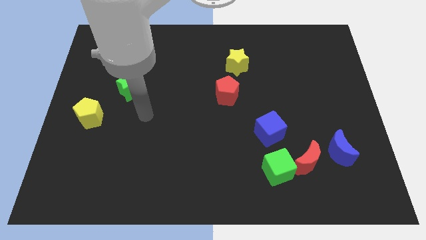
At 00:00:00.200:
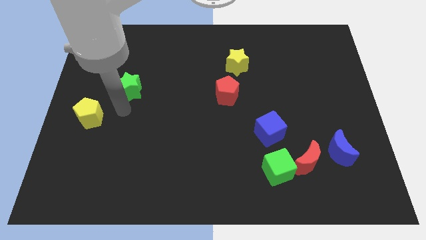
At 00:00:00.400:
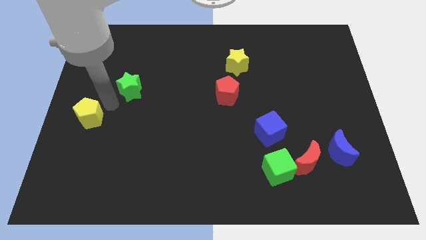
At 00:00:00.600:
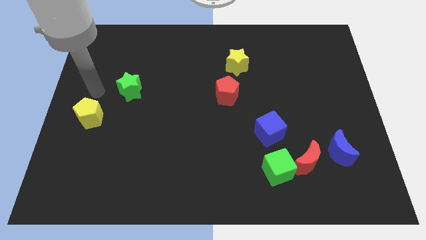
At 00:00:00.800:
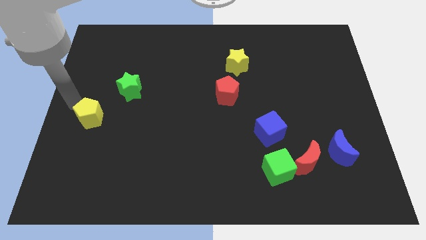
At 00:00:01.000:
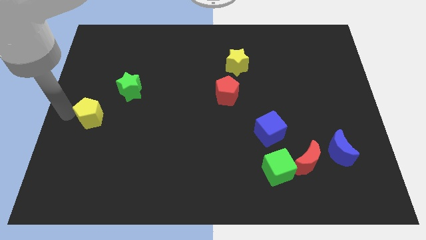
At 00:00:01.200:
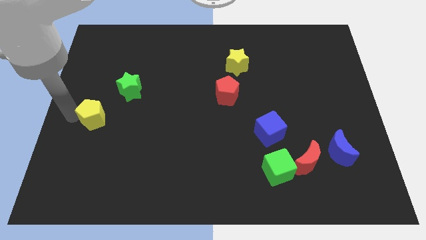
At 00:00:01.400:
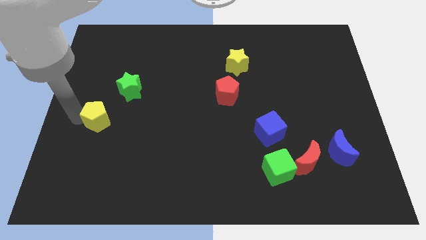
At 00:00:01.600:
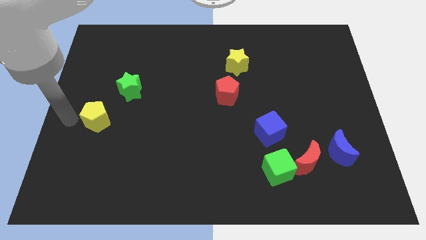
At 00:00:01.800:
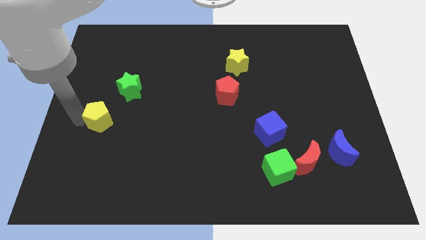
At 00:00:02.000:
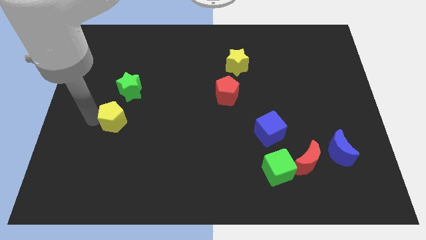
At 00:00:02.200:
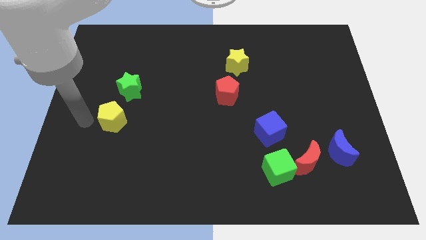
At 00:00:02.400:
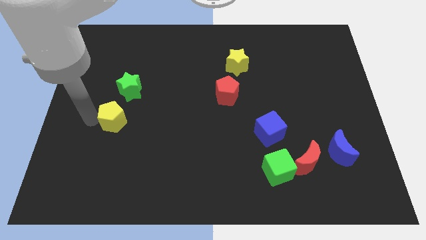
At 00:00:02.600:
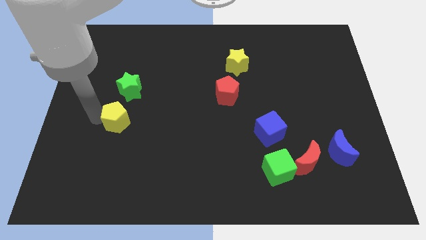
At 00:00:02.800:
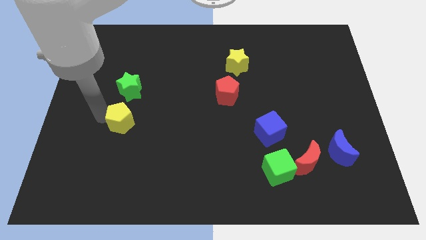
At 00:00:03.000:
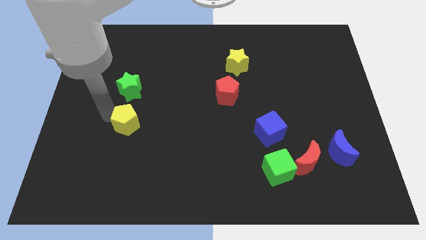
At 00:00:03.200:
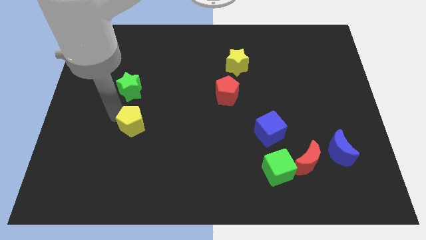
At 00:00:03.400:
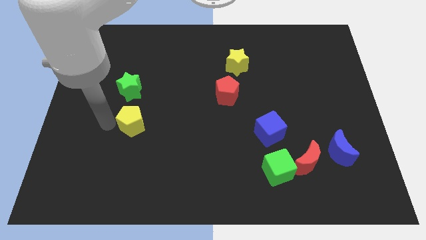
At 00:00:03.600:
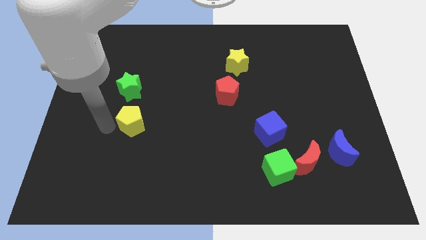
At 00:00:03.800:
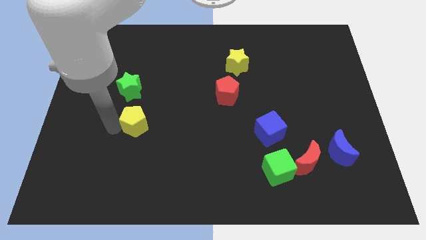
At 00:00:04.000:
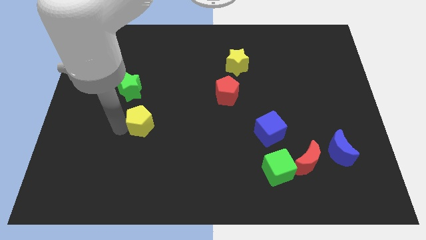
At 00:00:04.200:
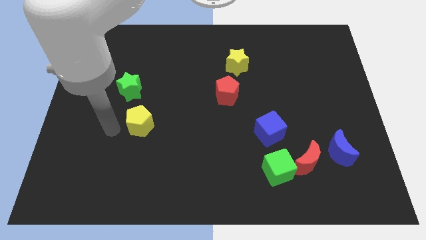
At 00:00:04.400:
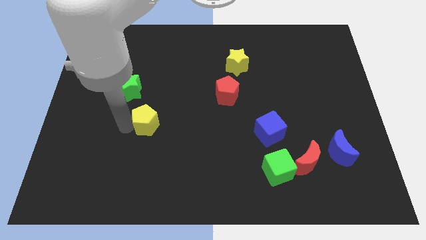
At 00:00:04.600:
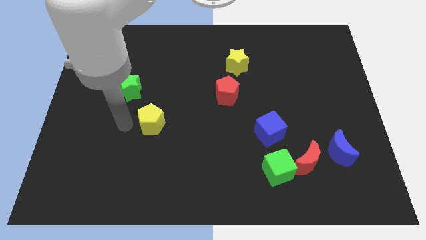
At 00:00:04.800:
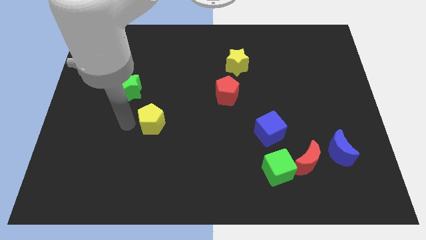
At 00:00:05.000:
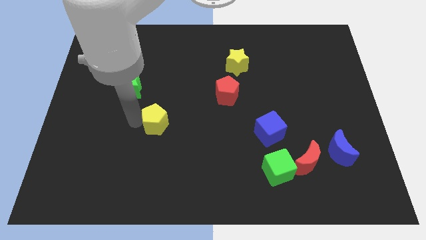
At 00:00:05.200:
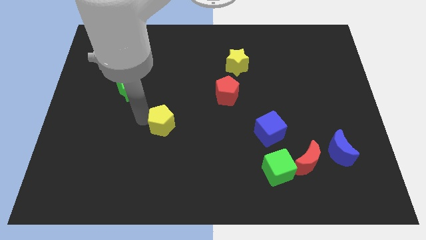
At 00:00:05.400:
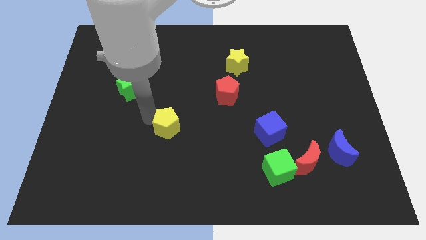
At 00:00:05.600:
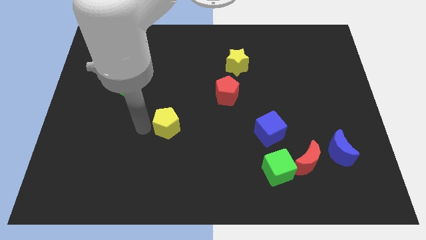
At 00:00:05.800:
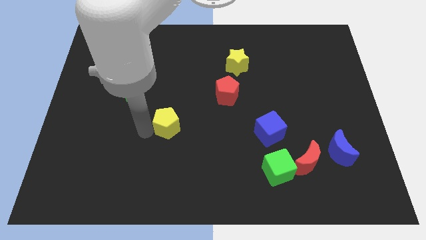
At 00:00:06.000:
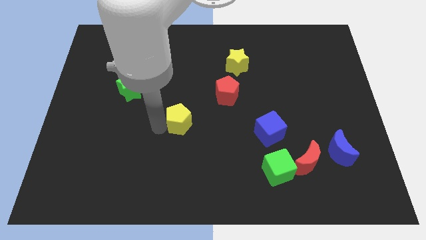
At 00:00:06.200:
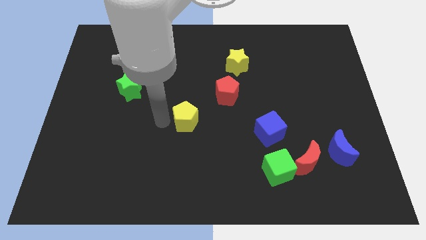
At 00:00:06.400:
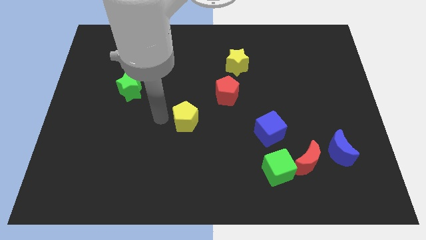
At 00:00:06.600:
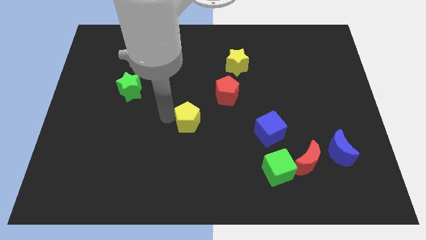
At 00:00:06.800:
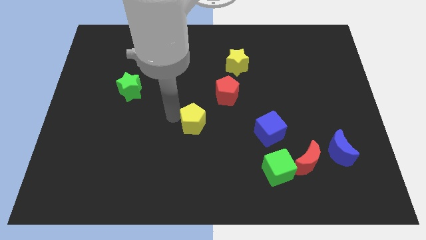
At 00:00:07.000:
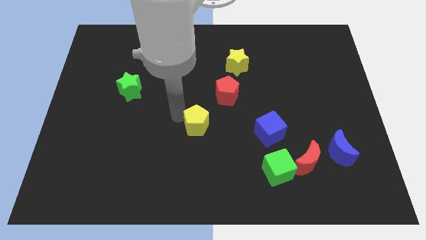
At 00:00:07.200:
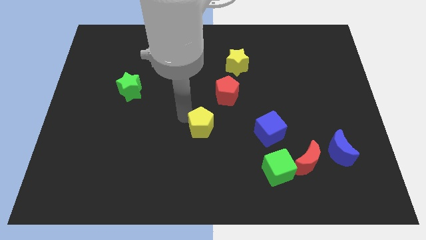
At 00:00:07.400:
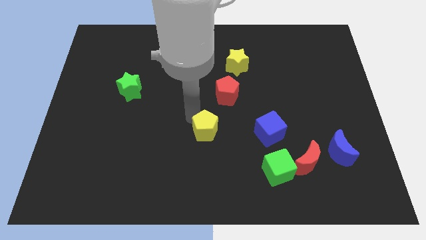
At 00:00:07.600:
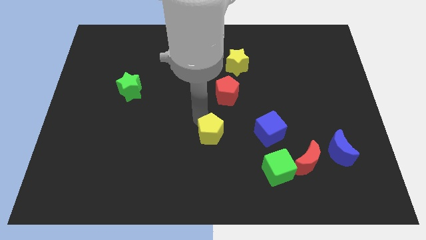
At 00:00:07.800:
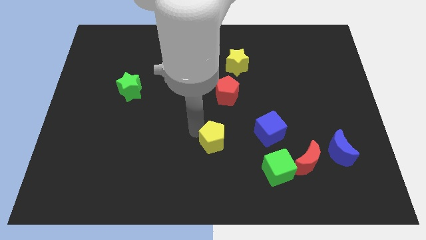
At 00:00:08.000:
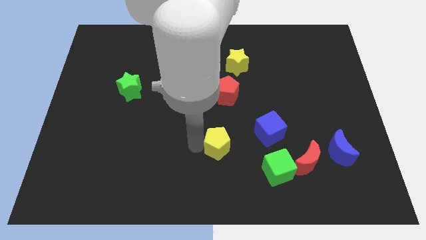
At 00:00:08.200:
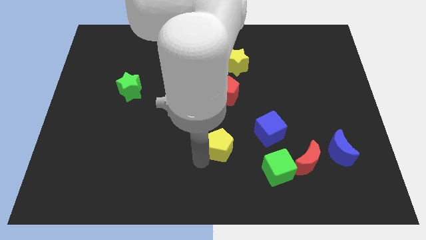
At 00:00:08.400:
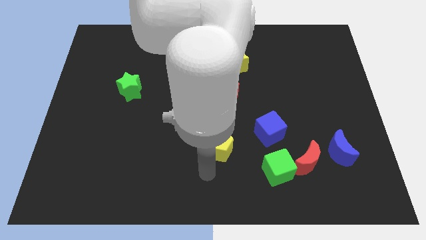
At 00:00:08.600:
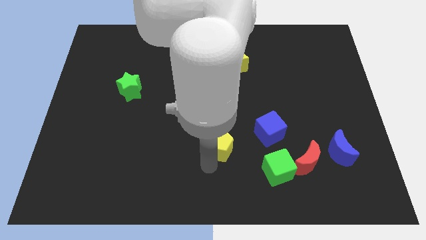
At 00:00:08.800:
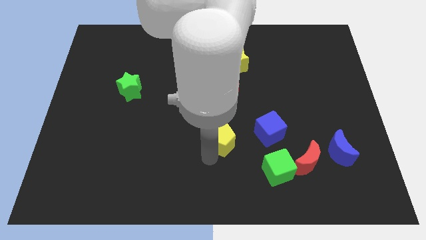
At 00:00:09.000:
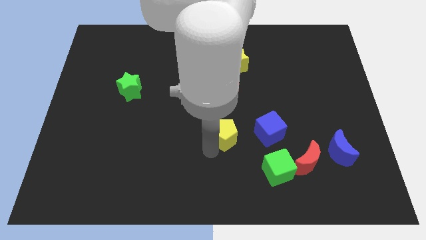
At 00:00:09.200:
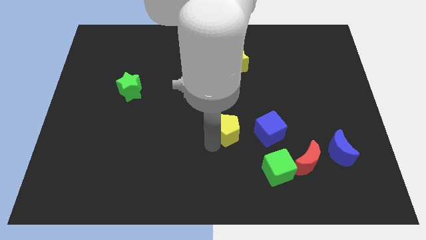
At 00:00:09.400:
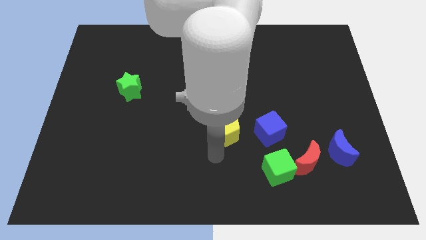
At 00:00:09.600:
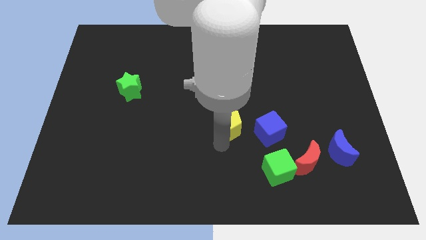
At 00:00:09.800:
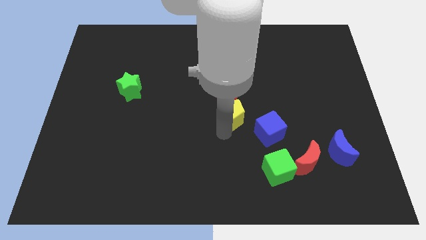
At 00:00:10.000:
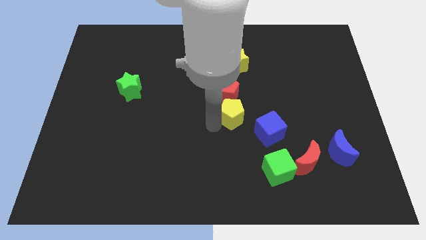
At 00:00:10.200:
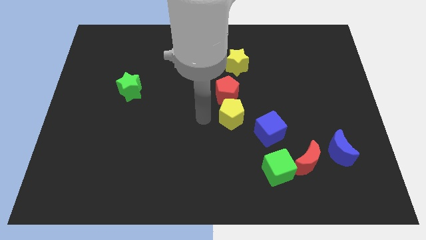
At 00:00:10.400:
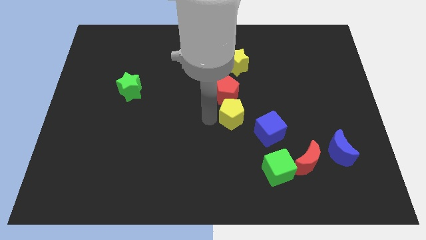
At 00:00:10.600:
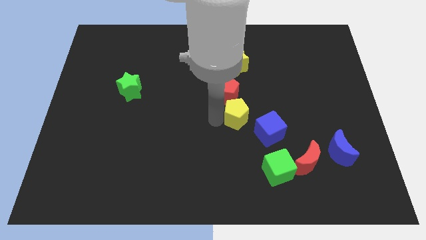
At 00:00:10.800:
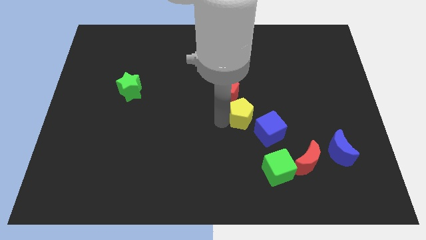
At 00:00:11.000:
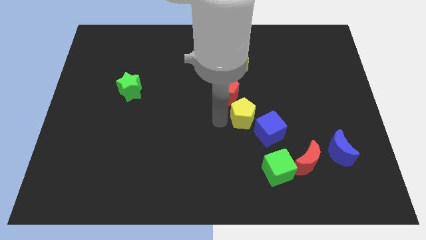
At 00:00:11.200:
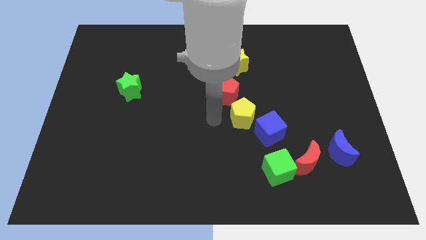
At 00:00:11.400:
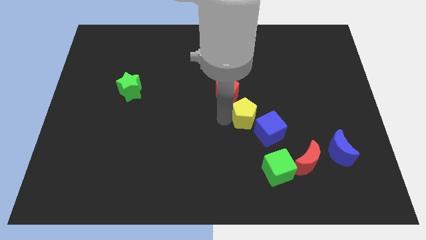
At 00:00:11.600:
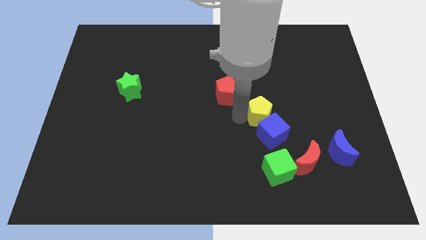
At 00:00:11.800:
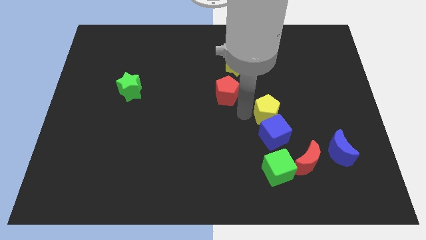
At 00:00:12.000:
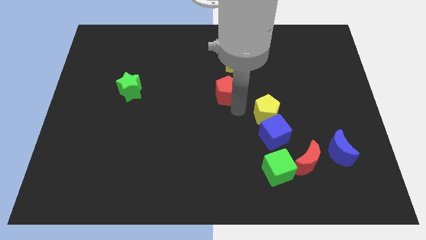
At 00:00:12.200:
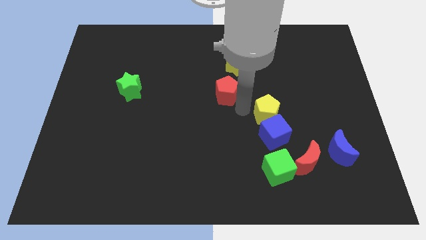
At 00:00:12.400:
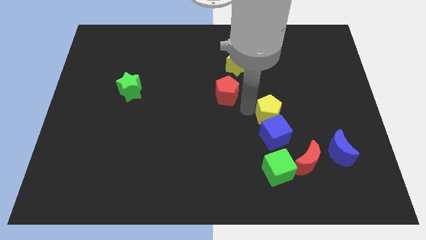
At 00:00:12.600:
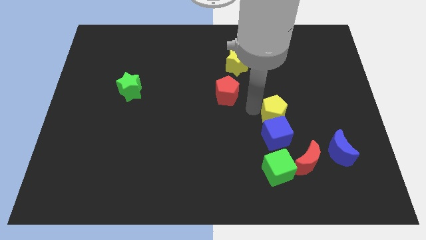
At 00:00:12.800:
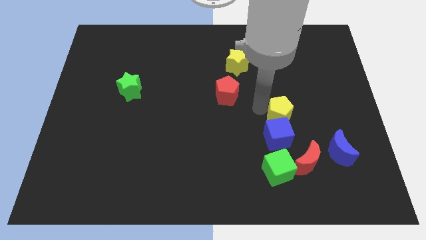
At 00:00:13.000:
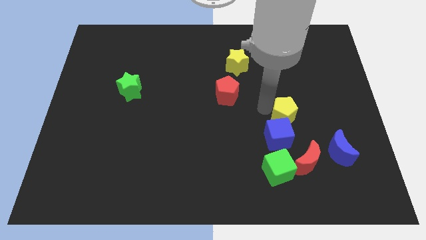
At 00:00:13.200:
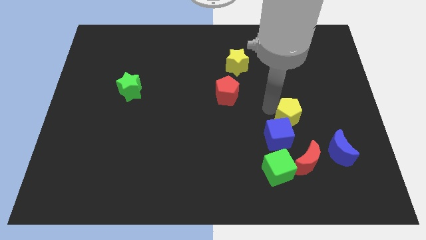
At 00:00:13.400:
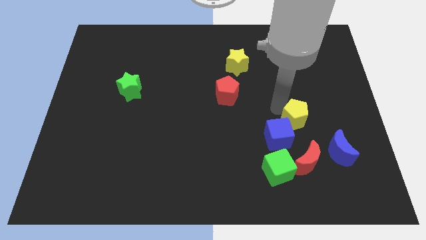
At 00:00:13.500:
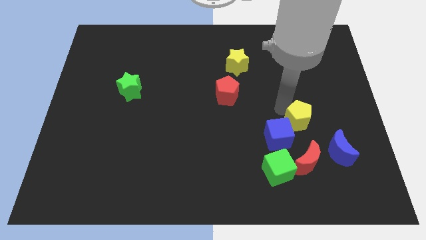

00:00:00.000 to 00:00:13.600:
slide the yellow pentagon to the right of the blue cube
